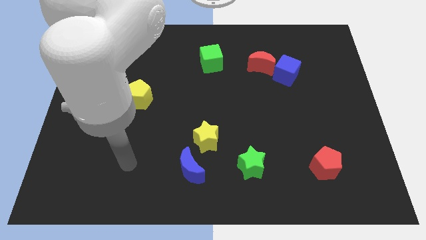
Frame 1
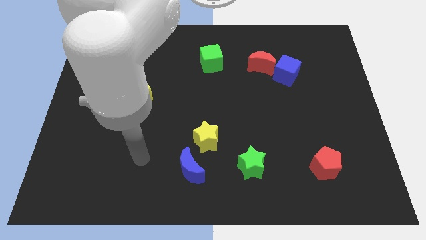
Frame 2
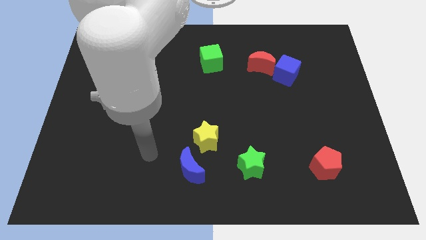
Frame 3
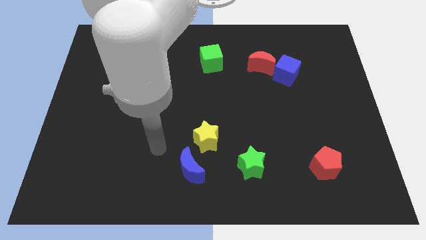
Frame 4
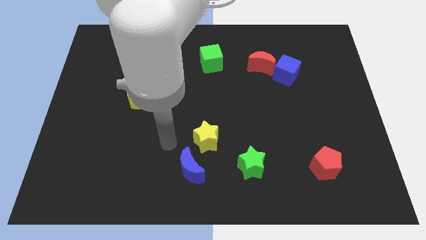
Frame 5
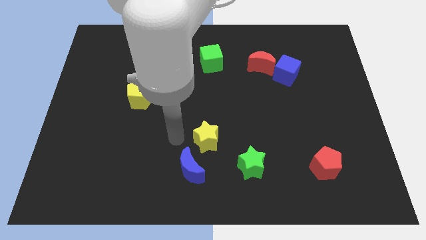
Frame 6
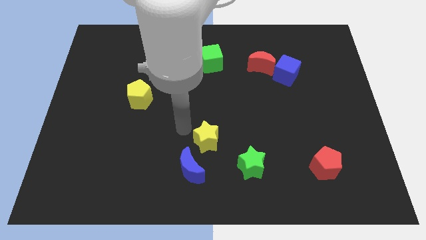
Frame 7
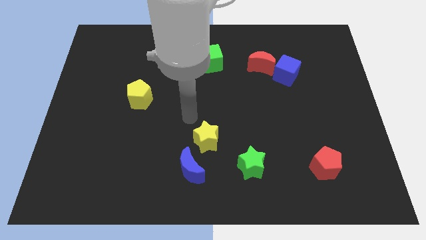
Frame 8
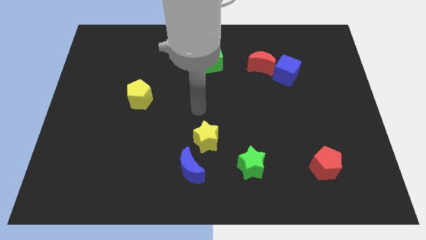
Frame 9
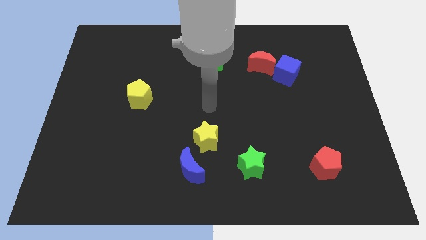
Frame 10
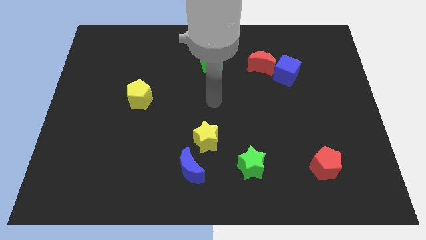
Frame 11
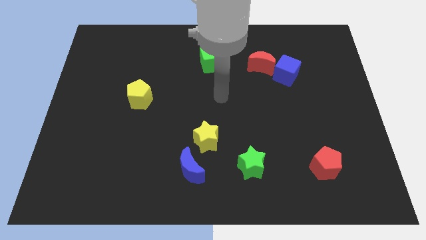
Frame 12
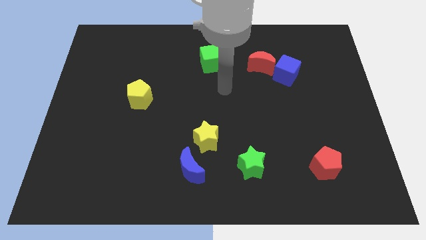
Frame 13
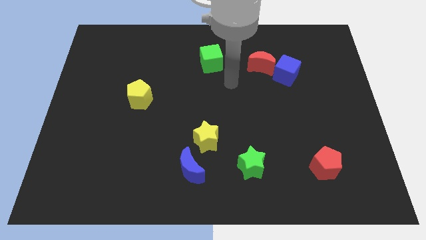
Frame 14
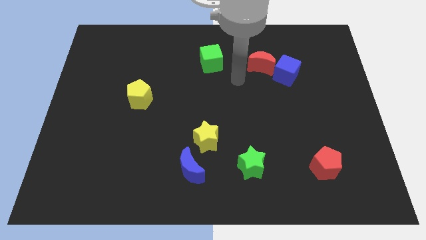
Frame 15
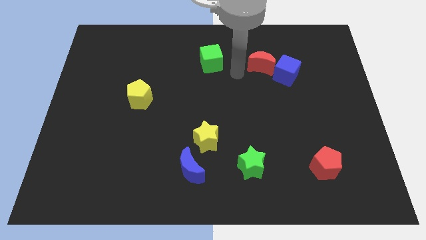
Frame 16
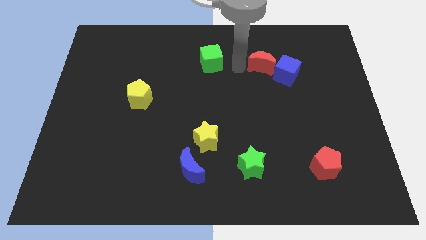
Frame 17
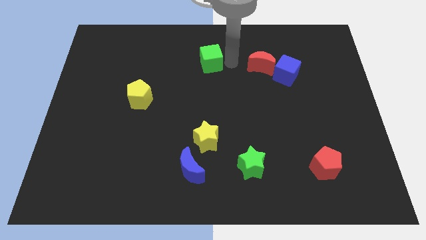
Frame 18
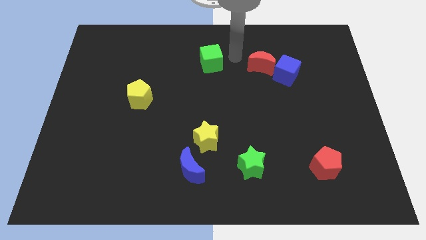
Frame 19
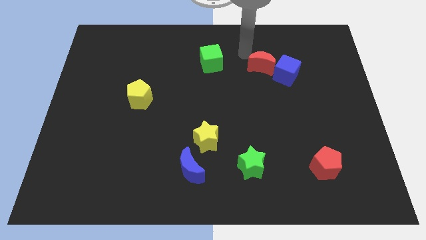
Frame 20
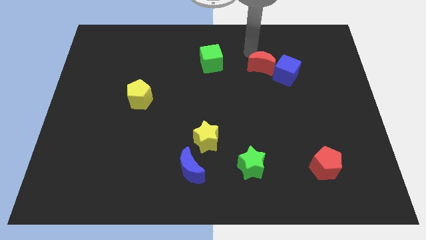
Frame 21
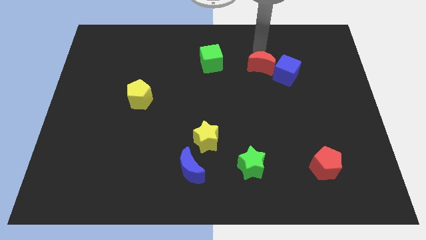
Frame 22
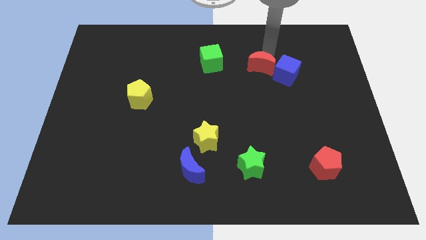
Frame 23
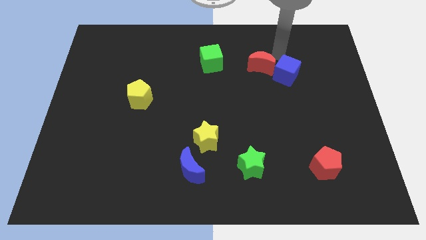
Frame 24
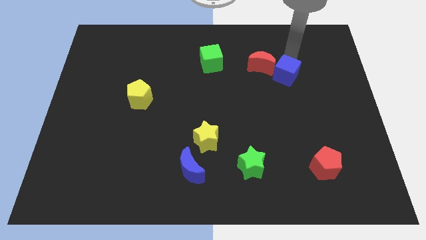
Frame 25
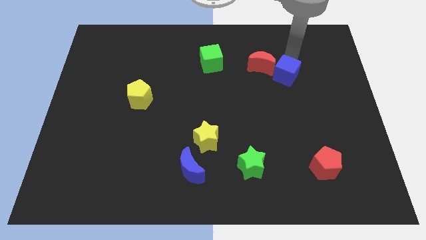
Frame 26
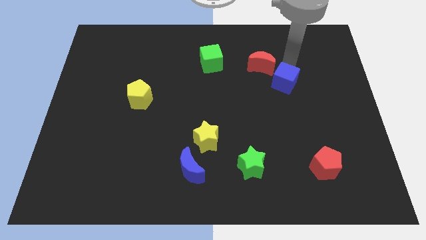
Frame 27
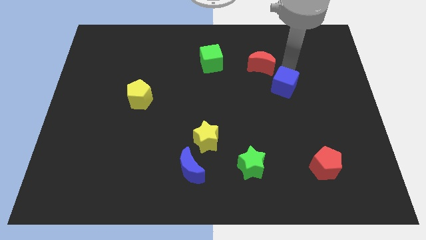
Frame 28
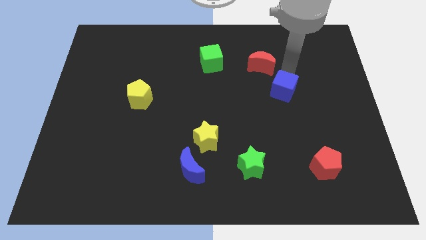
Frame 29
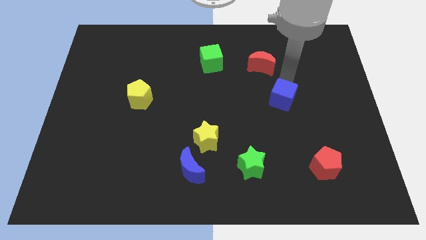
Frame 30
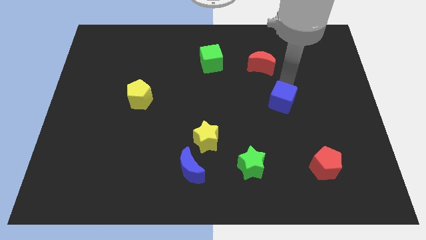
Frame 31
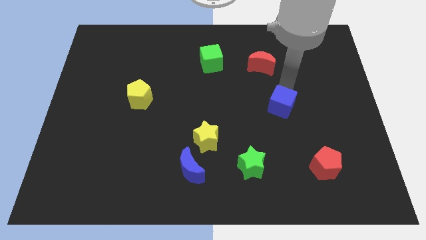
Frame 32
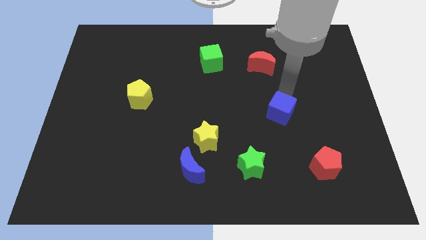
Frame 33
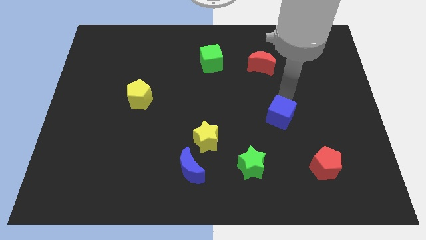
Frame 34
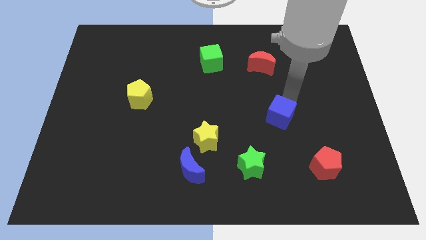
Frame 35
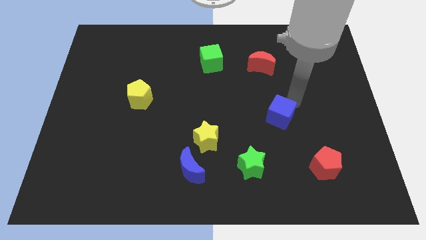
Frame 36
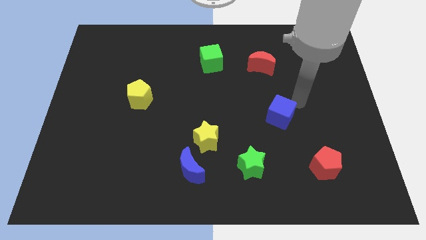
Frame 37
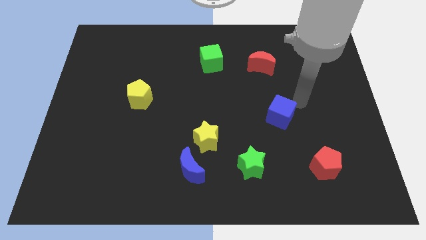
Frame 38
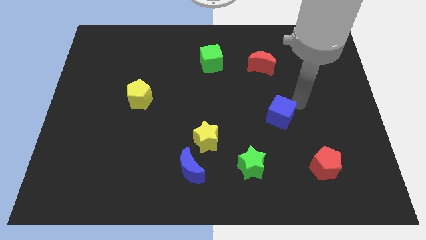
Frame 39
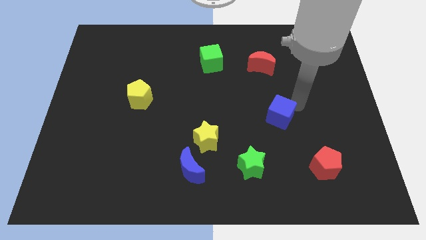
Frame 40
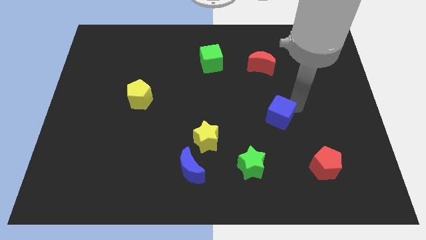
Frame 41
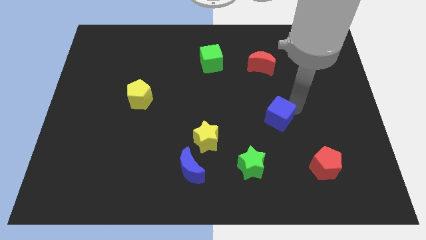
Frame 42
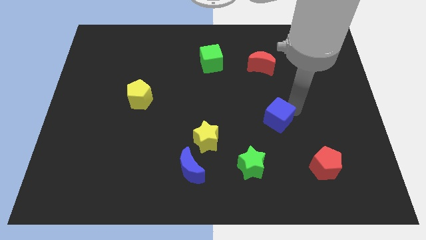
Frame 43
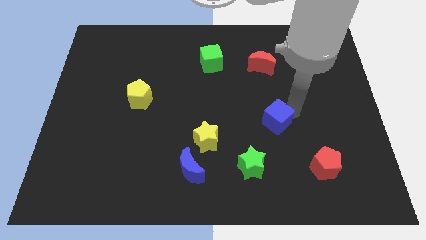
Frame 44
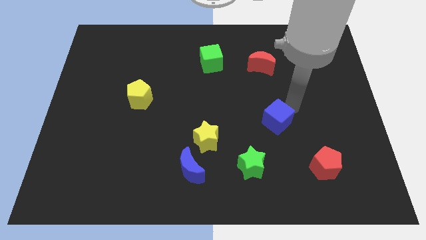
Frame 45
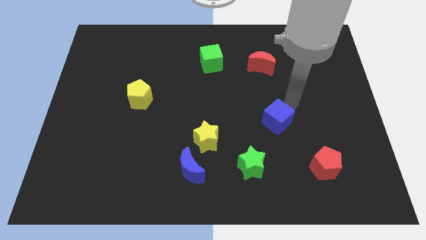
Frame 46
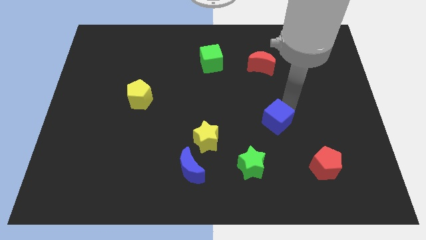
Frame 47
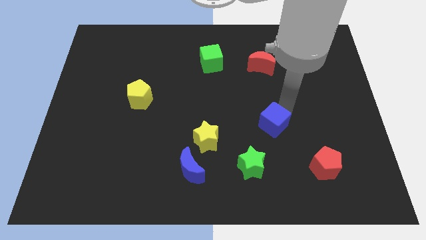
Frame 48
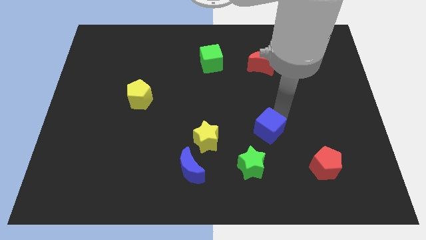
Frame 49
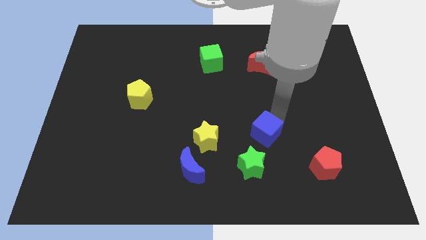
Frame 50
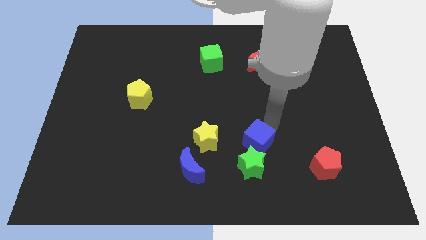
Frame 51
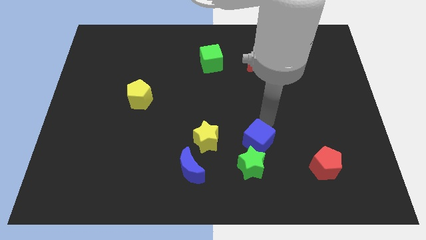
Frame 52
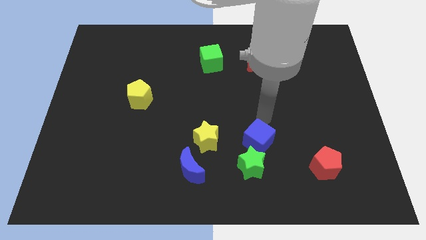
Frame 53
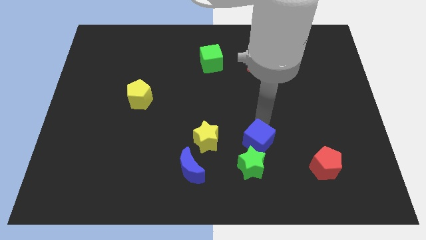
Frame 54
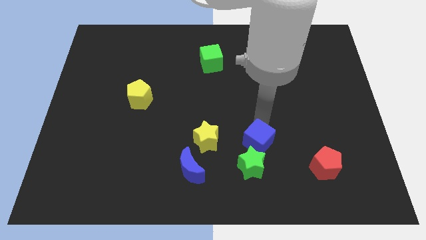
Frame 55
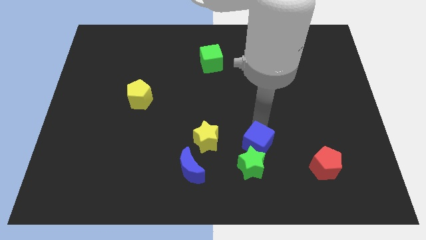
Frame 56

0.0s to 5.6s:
put the blue cube next to the green star

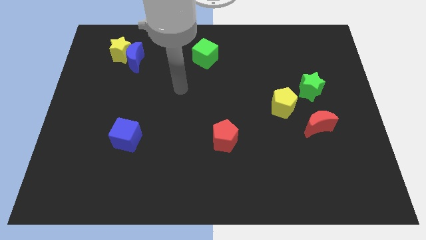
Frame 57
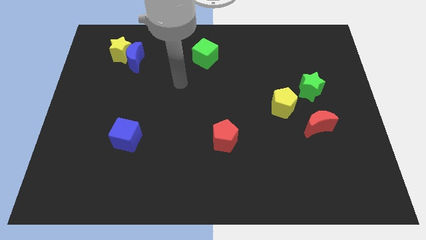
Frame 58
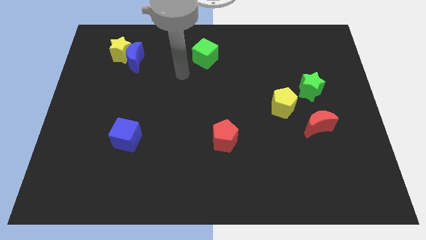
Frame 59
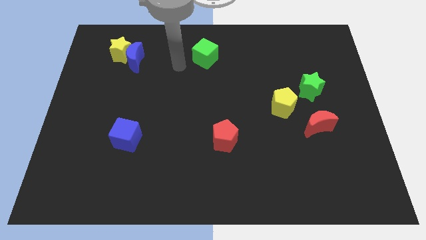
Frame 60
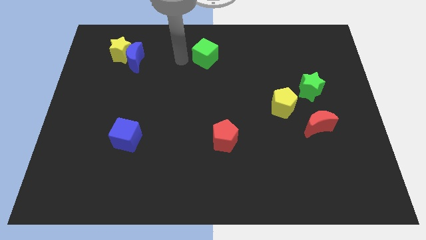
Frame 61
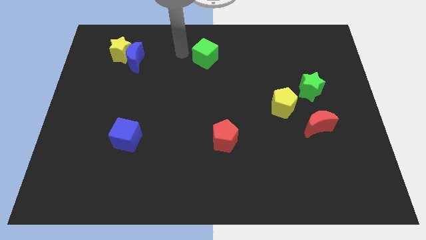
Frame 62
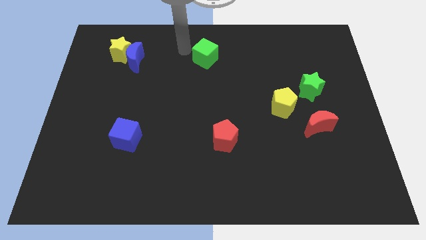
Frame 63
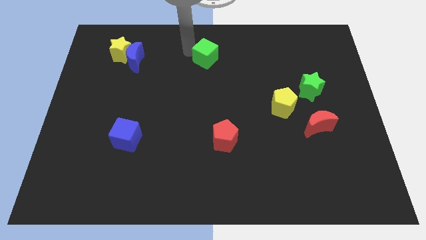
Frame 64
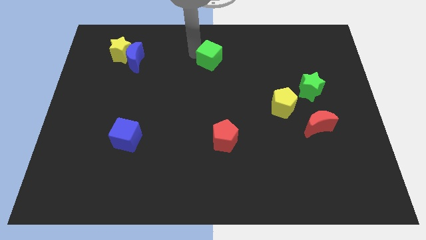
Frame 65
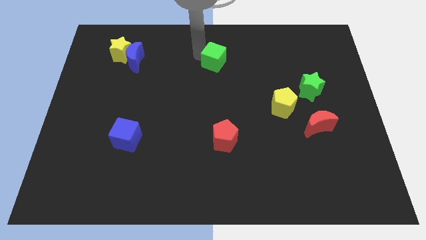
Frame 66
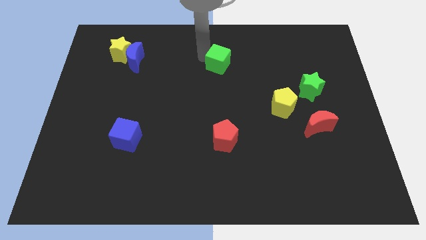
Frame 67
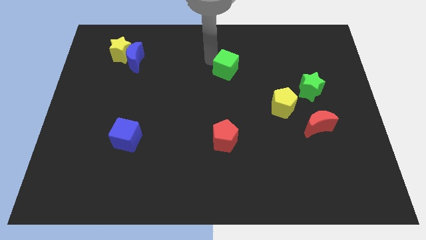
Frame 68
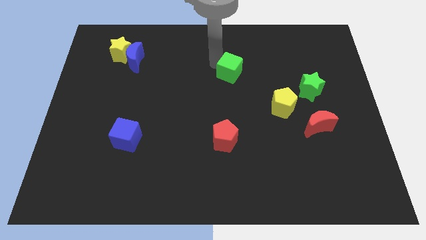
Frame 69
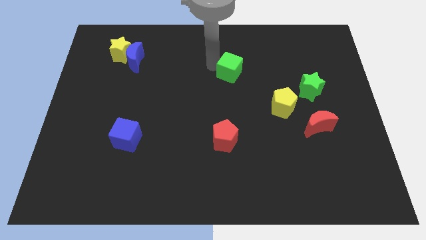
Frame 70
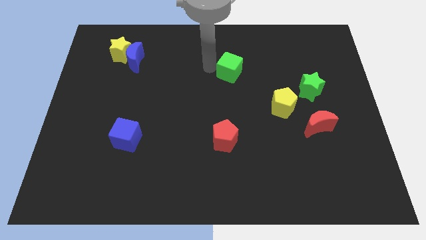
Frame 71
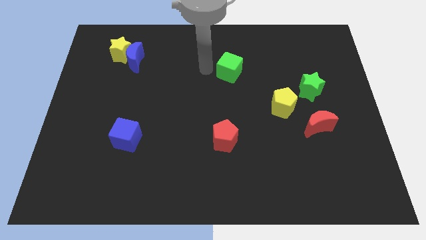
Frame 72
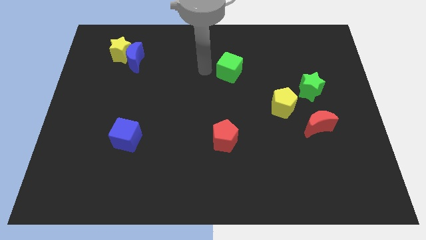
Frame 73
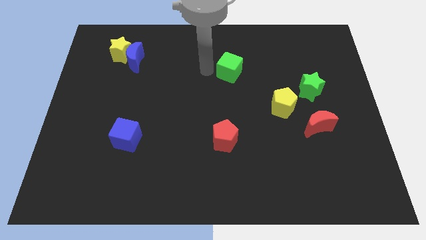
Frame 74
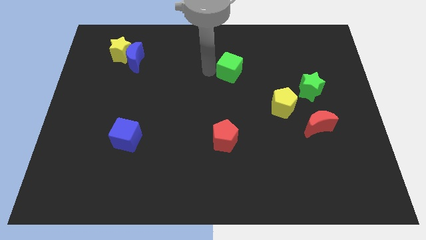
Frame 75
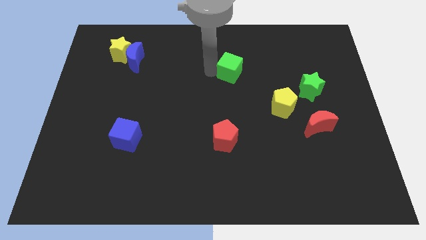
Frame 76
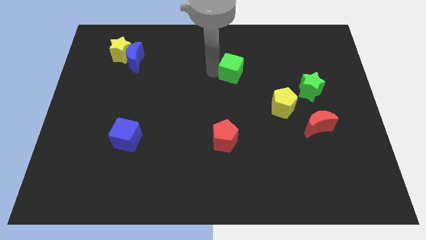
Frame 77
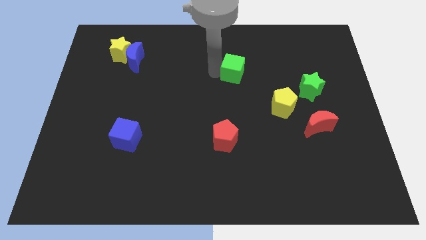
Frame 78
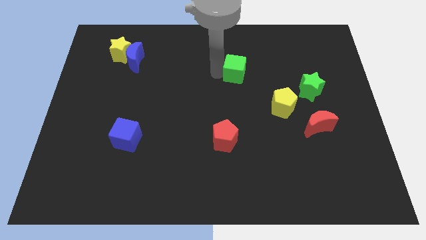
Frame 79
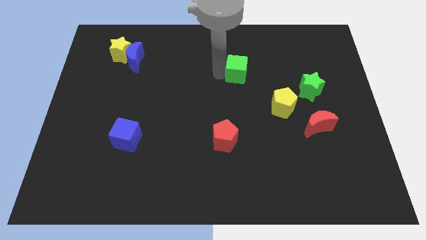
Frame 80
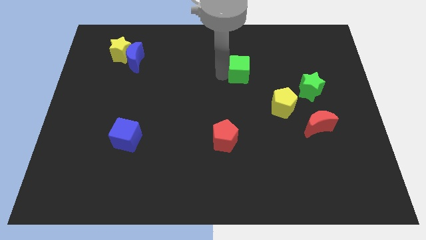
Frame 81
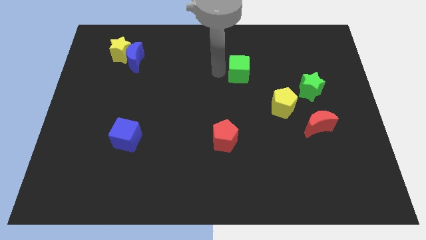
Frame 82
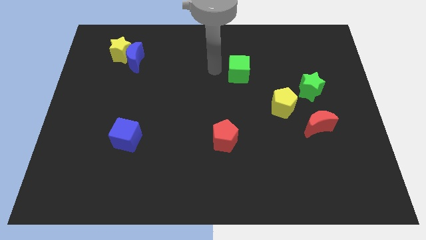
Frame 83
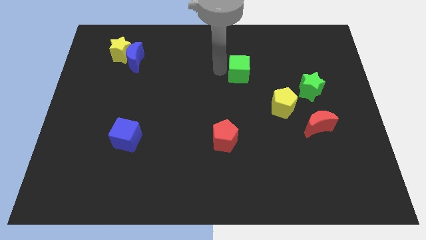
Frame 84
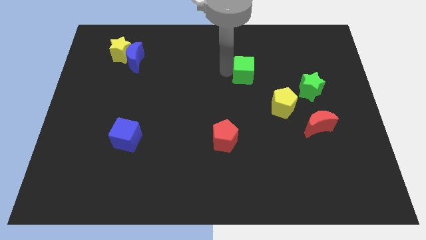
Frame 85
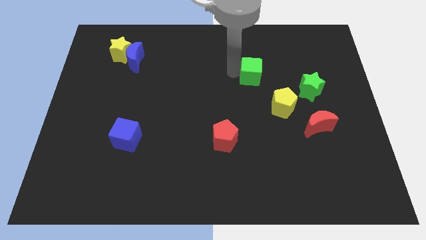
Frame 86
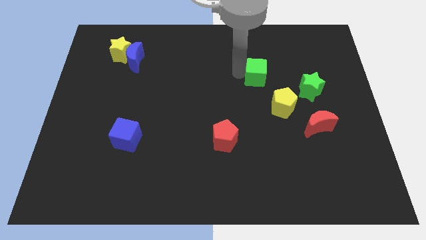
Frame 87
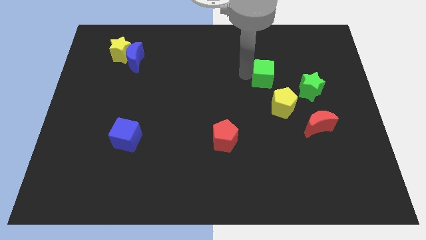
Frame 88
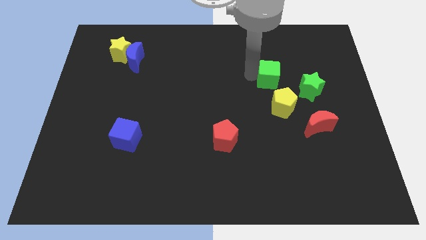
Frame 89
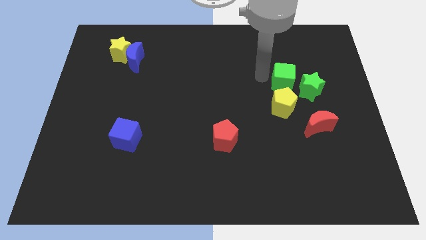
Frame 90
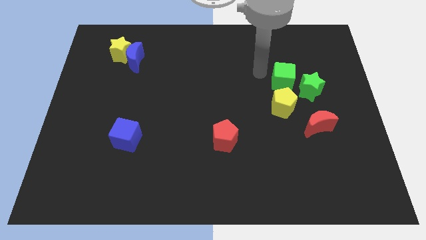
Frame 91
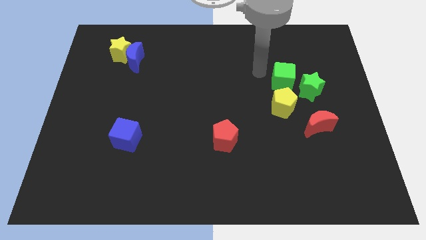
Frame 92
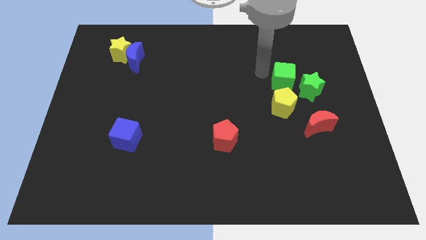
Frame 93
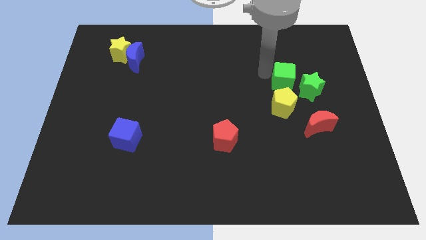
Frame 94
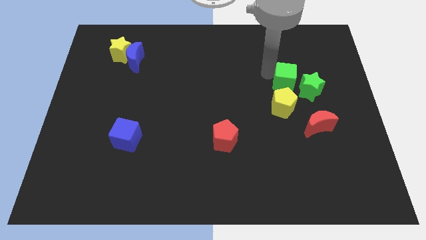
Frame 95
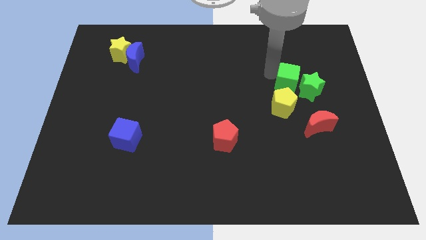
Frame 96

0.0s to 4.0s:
slide the green cube close to the green star
